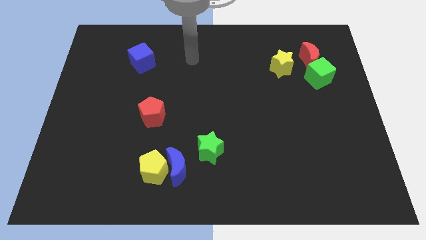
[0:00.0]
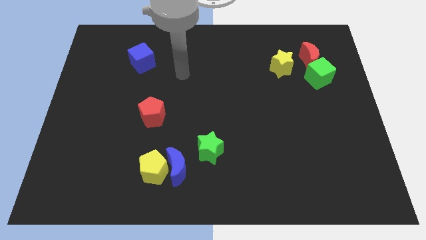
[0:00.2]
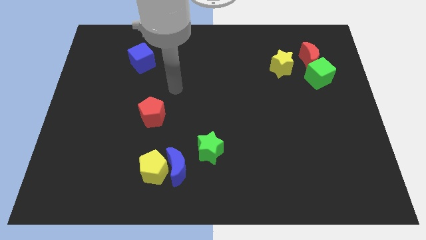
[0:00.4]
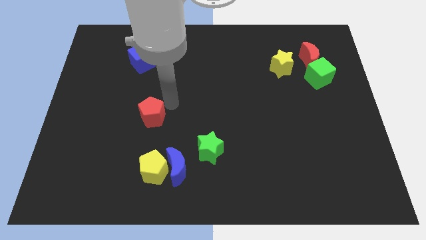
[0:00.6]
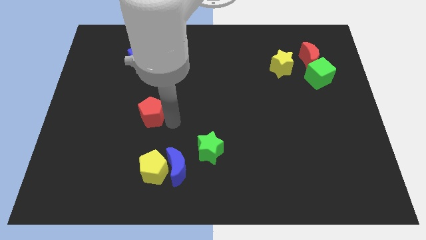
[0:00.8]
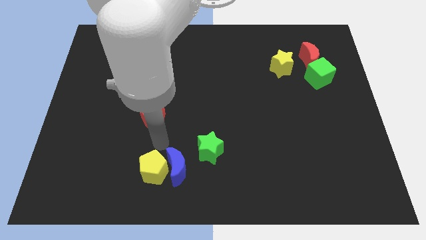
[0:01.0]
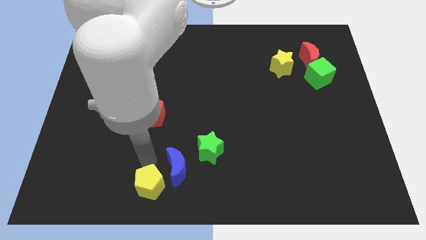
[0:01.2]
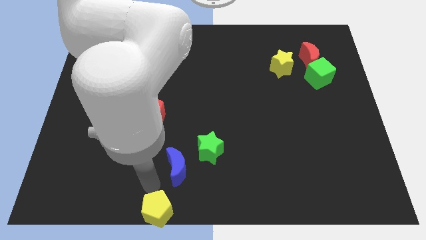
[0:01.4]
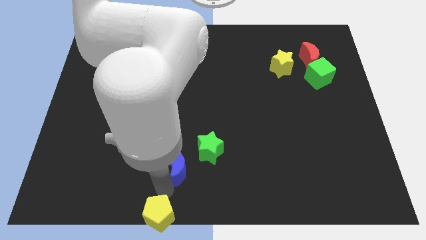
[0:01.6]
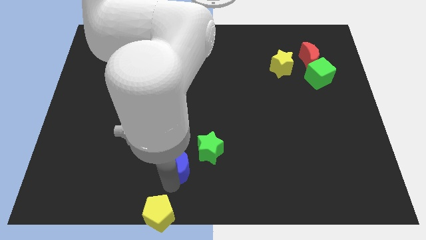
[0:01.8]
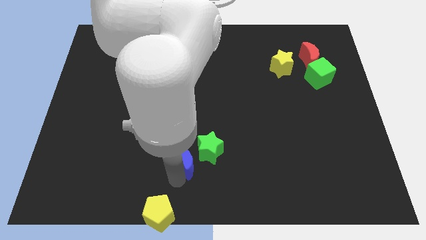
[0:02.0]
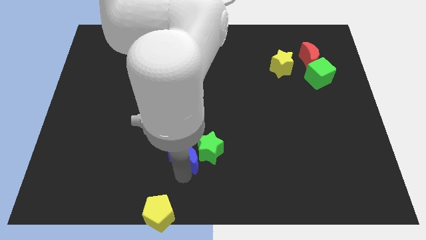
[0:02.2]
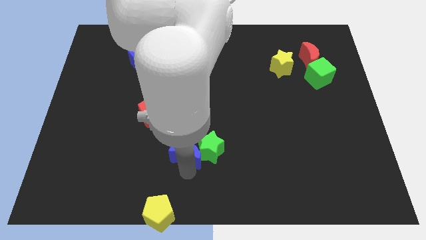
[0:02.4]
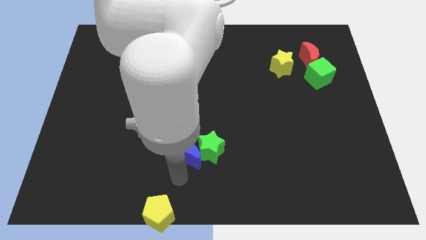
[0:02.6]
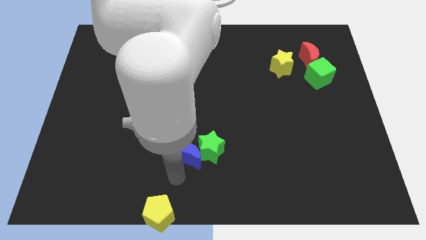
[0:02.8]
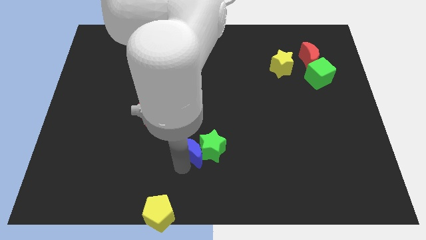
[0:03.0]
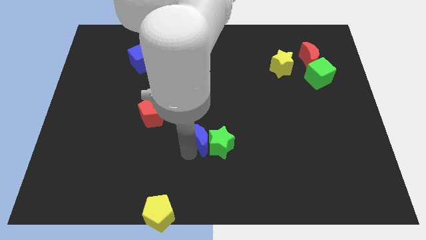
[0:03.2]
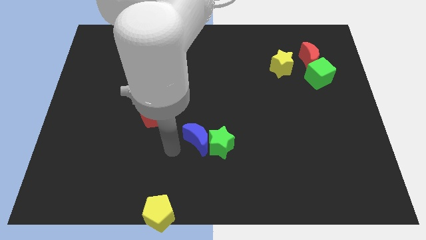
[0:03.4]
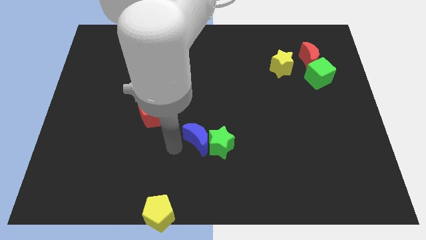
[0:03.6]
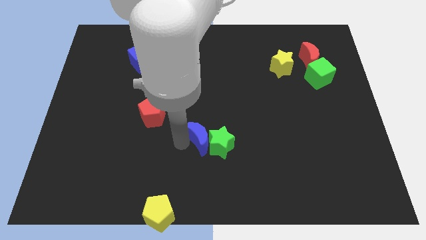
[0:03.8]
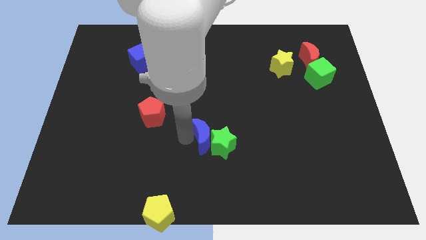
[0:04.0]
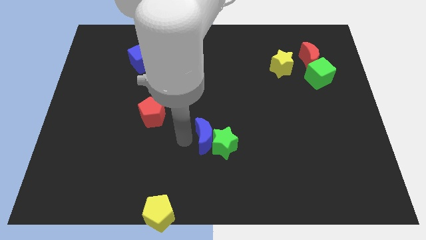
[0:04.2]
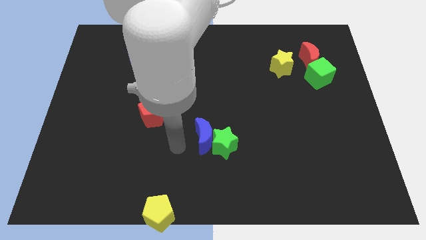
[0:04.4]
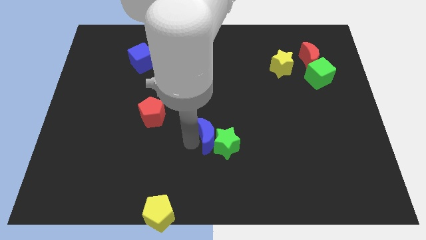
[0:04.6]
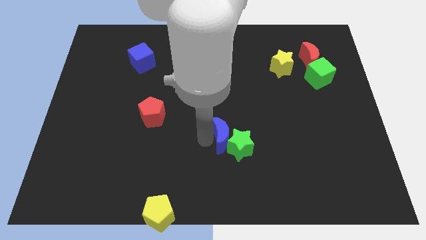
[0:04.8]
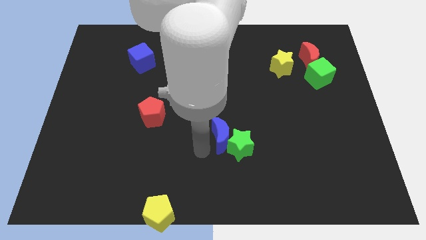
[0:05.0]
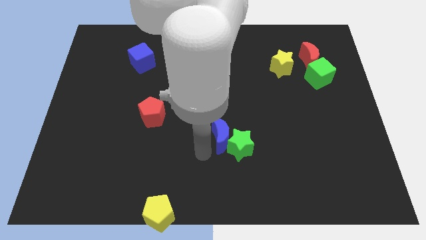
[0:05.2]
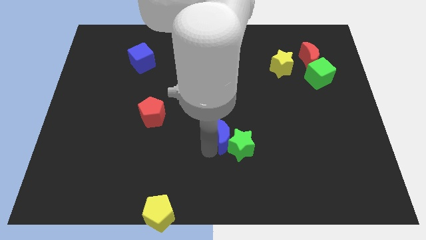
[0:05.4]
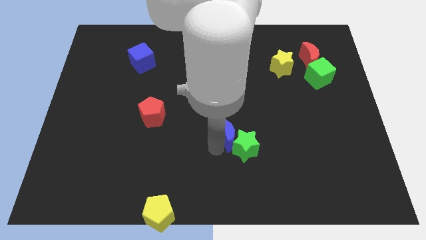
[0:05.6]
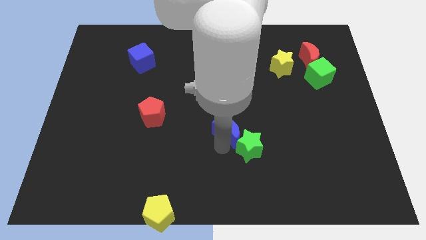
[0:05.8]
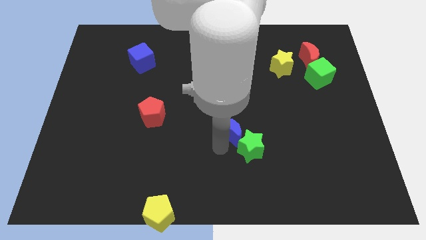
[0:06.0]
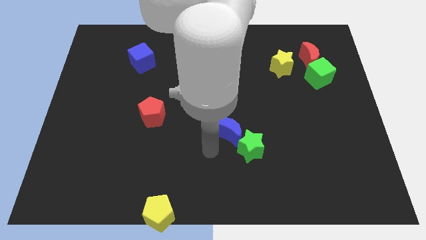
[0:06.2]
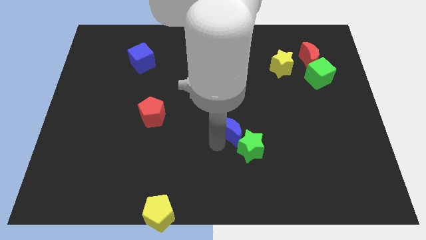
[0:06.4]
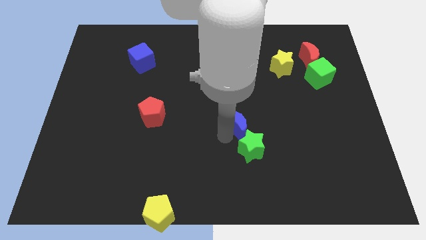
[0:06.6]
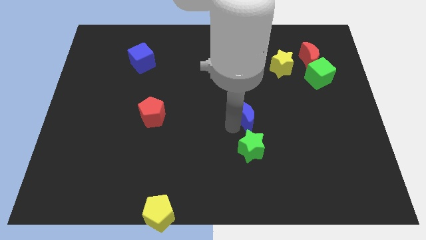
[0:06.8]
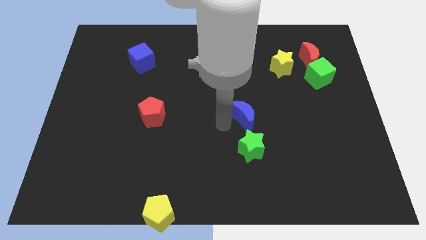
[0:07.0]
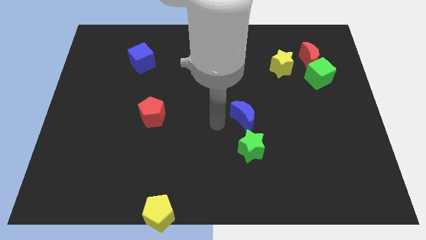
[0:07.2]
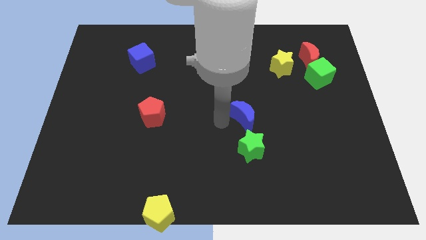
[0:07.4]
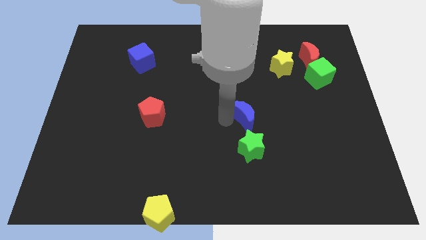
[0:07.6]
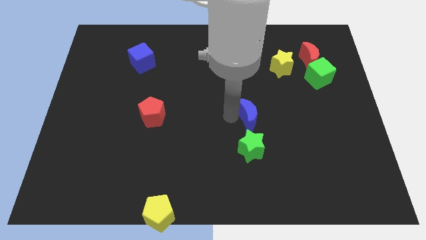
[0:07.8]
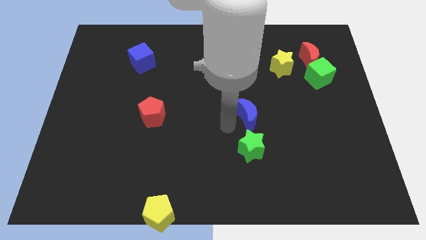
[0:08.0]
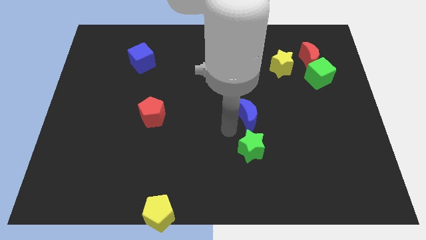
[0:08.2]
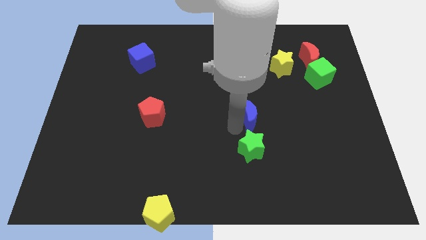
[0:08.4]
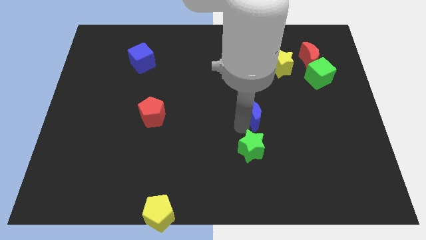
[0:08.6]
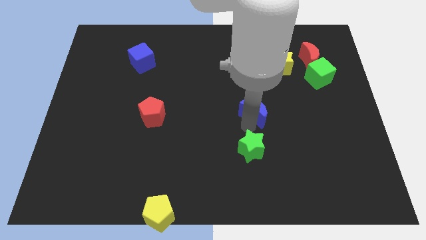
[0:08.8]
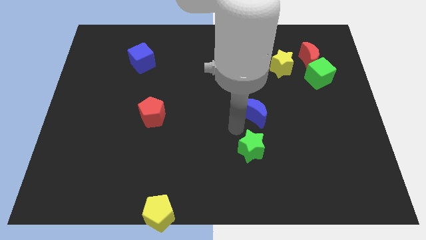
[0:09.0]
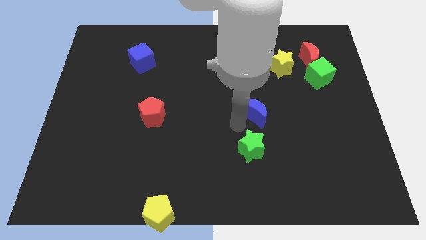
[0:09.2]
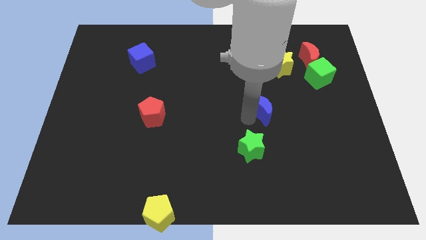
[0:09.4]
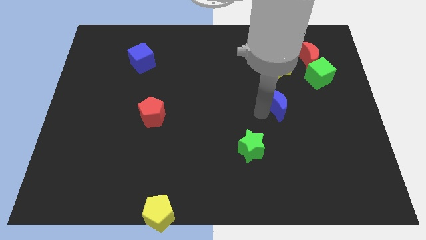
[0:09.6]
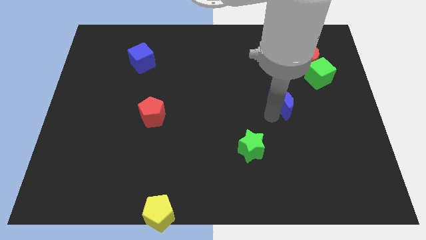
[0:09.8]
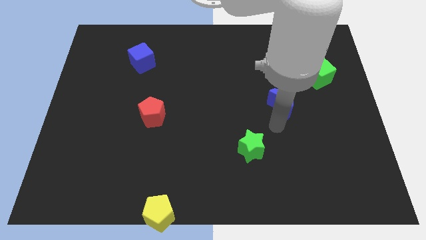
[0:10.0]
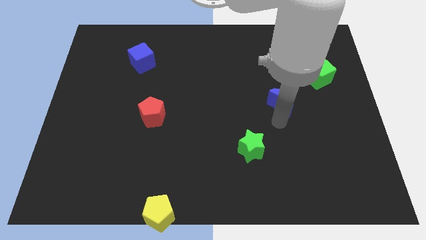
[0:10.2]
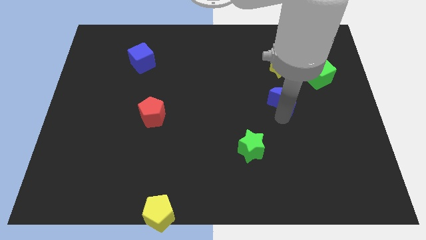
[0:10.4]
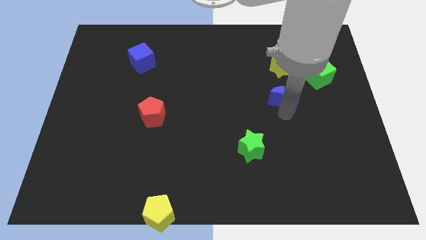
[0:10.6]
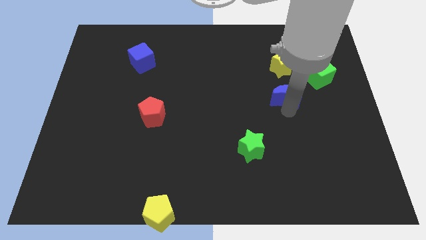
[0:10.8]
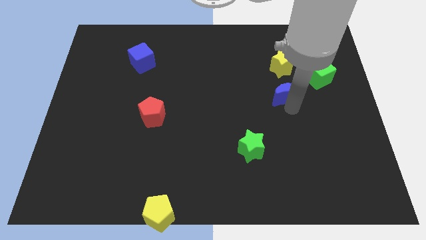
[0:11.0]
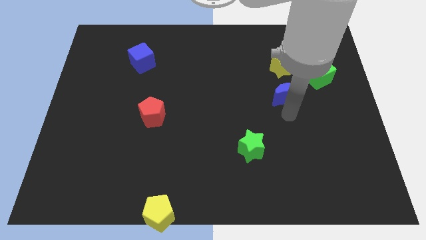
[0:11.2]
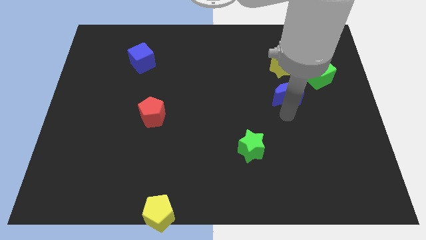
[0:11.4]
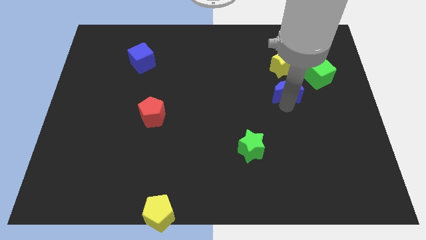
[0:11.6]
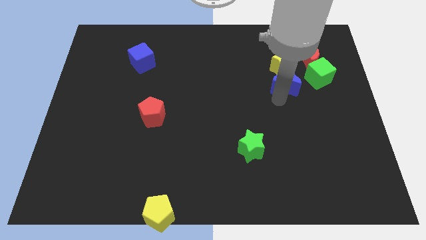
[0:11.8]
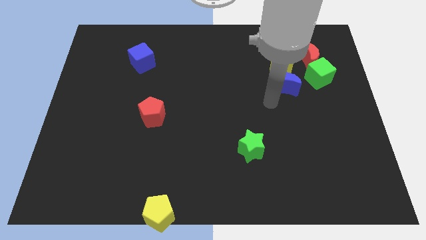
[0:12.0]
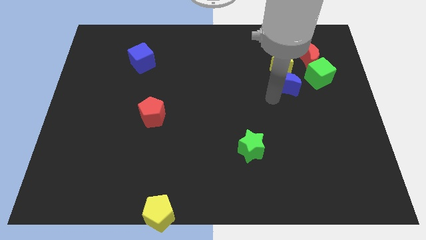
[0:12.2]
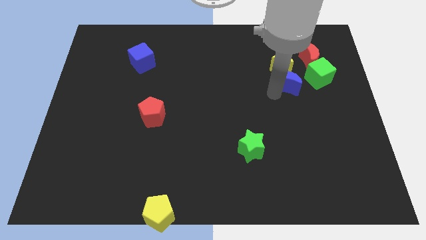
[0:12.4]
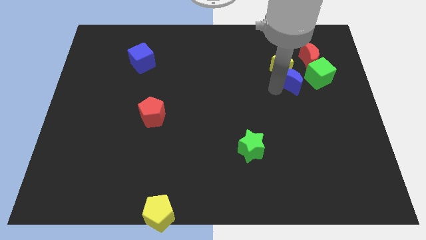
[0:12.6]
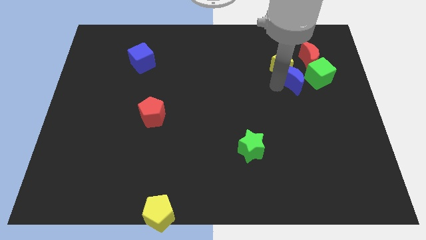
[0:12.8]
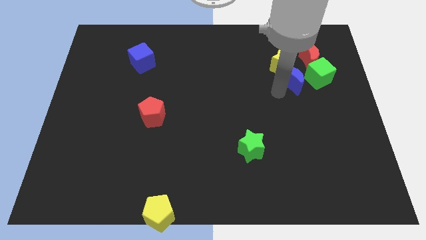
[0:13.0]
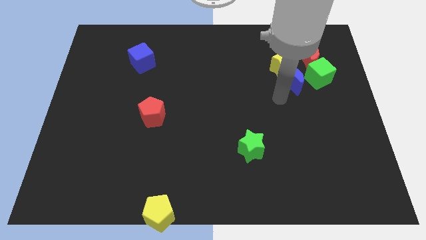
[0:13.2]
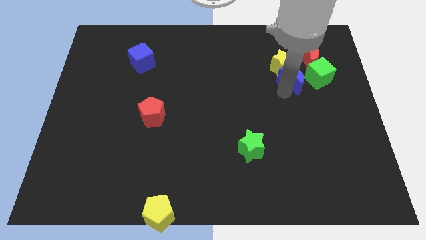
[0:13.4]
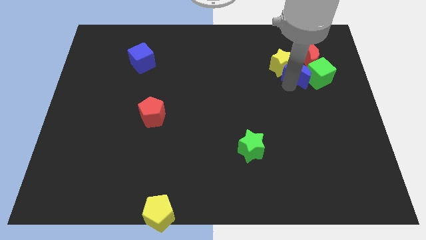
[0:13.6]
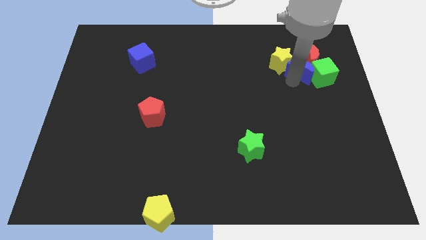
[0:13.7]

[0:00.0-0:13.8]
push the blue moon next to the red moon
